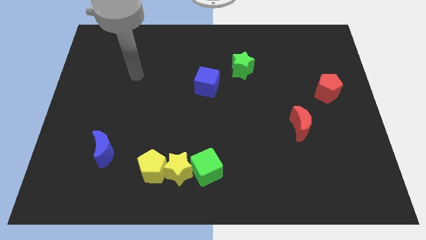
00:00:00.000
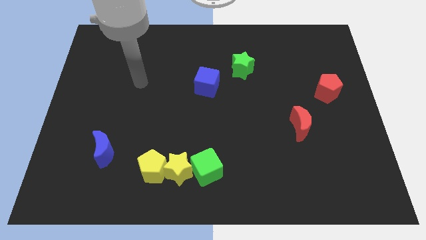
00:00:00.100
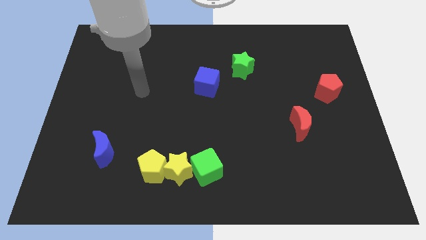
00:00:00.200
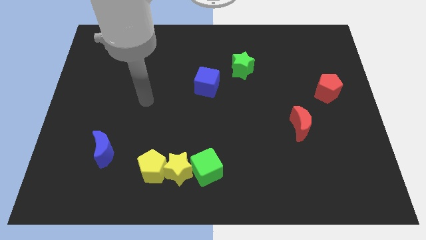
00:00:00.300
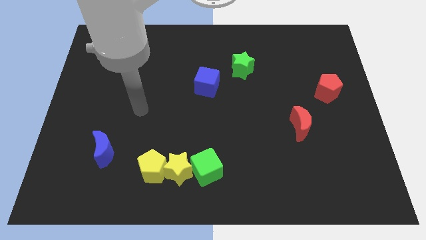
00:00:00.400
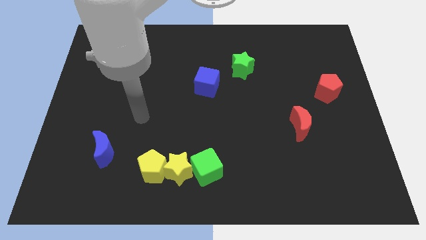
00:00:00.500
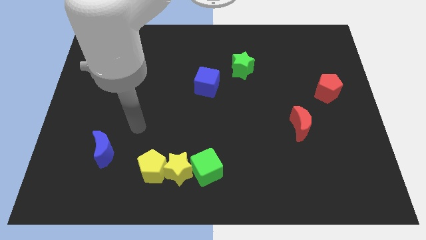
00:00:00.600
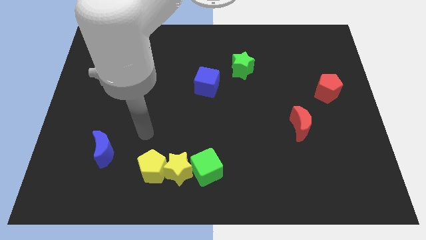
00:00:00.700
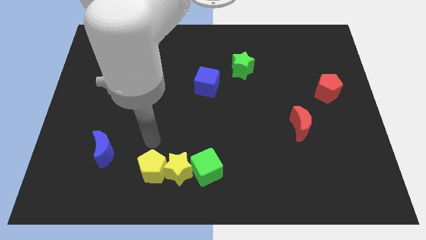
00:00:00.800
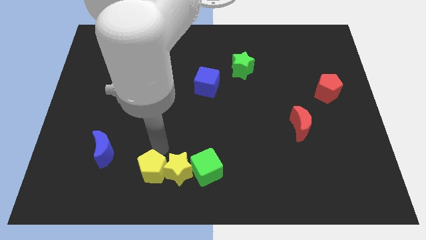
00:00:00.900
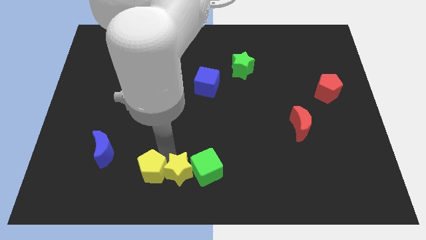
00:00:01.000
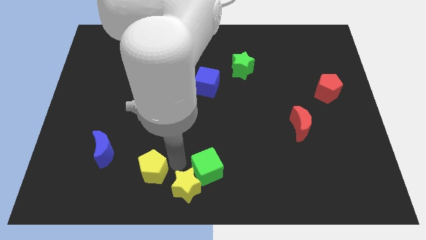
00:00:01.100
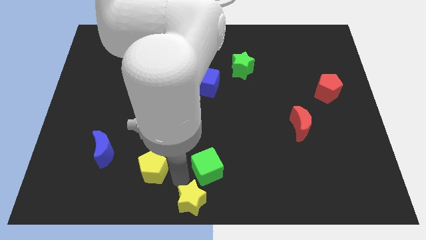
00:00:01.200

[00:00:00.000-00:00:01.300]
pull the yellow pentagon apart from the yellow star

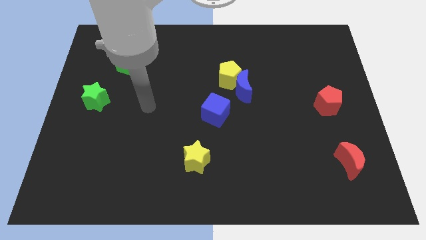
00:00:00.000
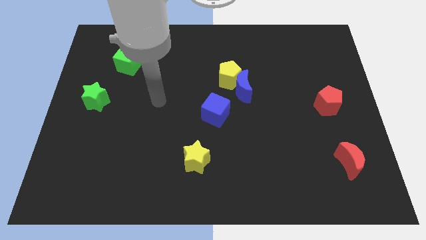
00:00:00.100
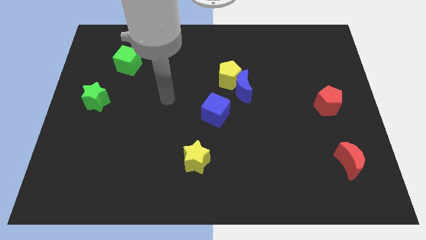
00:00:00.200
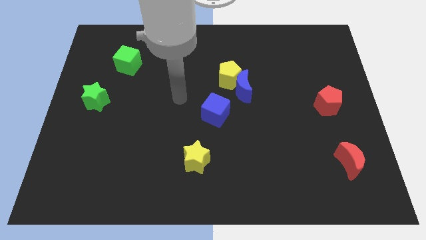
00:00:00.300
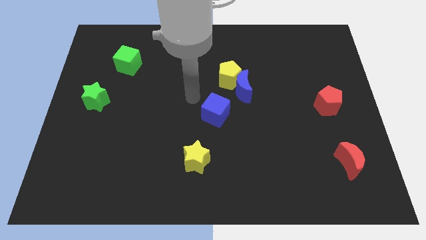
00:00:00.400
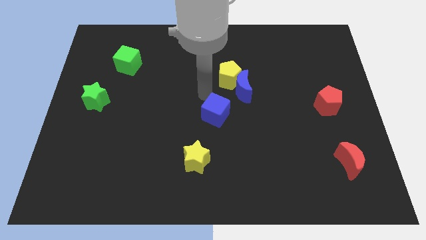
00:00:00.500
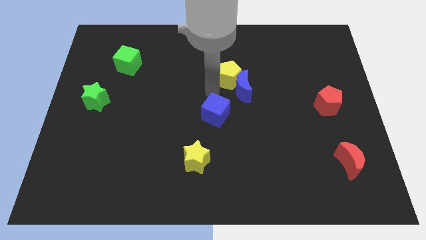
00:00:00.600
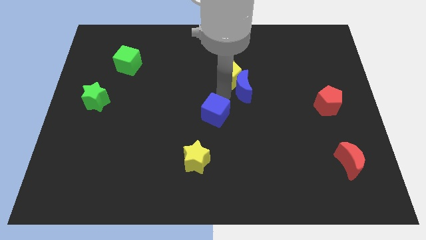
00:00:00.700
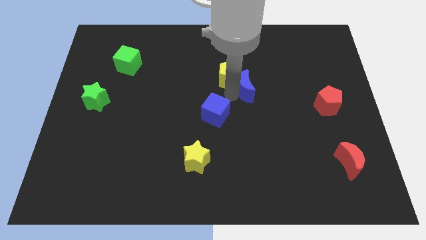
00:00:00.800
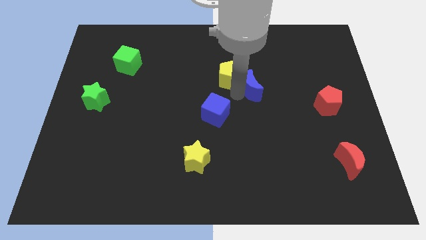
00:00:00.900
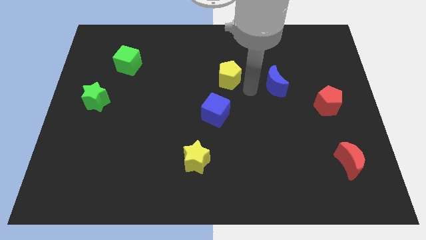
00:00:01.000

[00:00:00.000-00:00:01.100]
separate the yellow pentagon from the blue moon

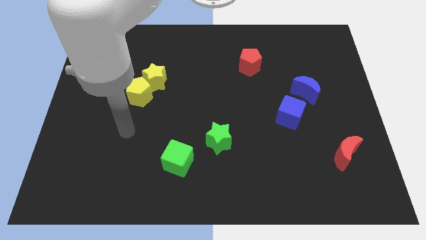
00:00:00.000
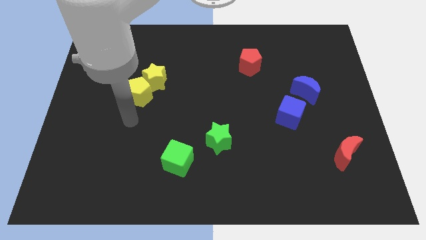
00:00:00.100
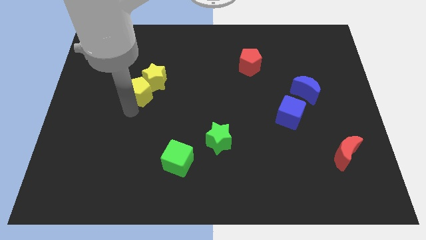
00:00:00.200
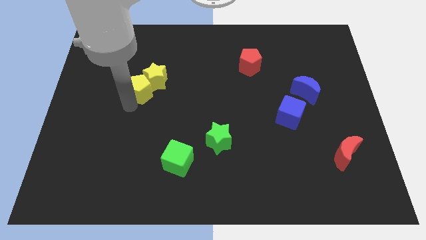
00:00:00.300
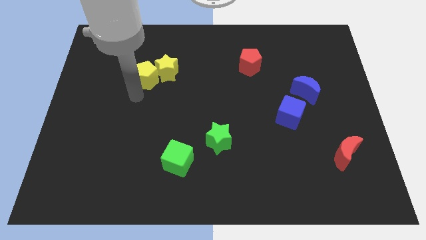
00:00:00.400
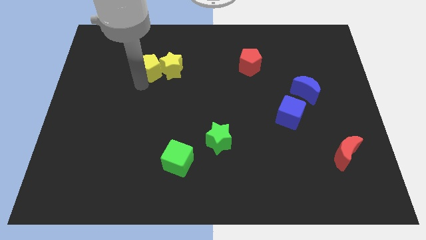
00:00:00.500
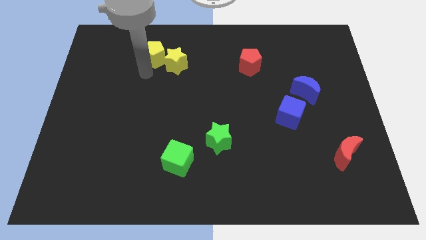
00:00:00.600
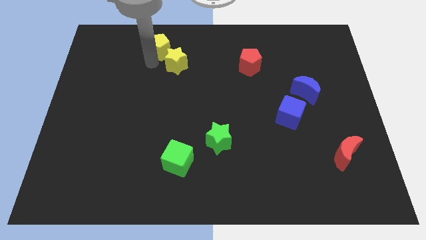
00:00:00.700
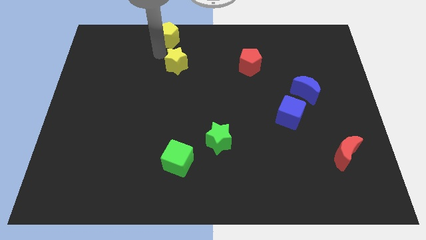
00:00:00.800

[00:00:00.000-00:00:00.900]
separate the yellow star from the yellow pentagon

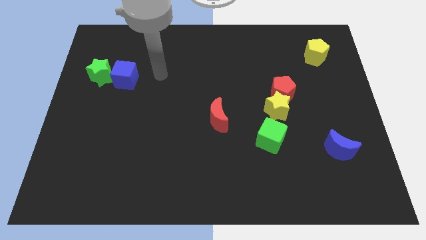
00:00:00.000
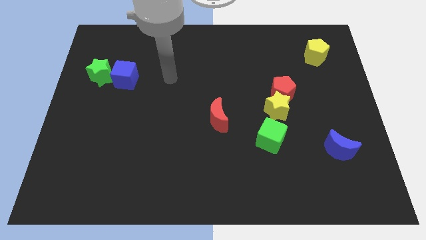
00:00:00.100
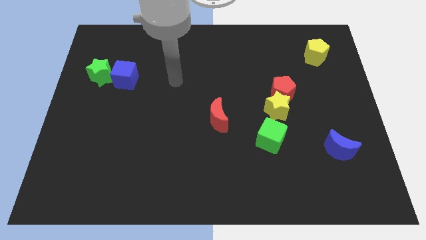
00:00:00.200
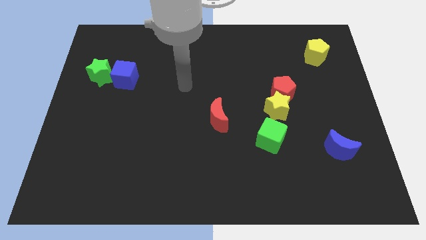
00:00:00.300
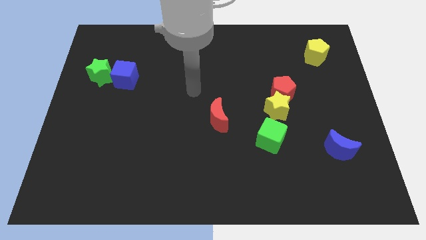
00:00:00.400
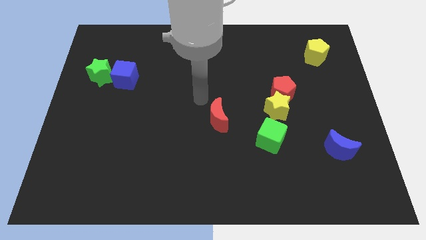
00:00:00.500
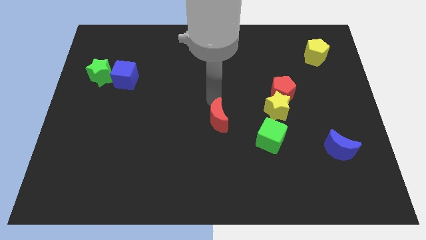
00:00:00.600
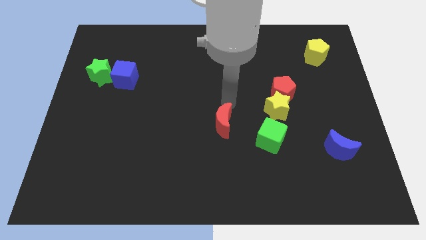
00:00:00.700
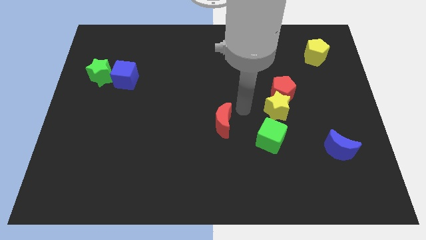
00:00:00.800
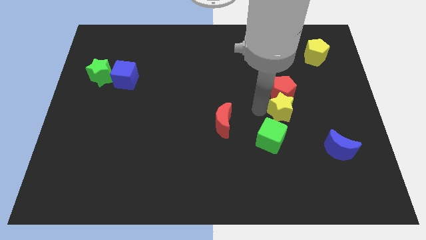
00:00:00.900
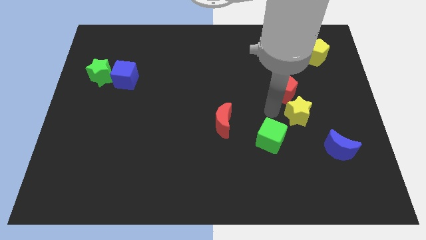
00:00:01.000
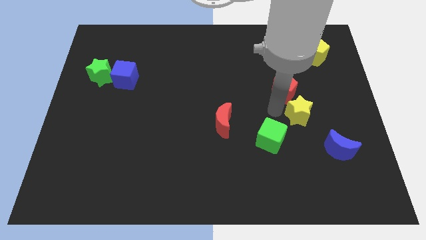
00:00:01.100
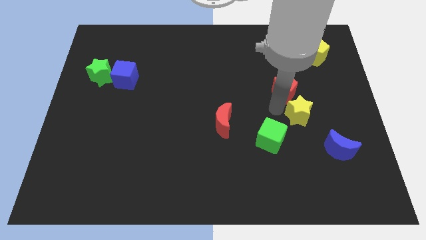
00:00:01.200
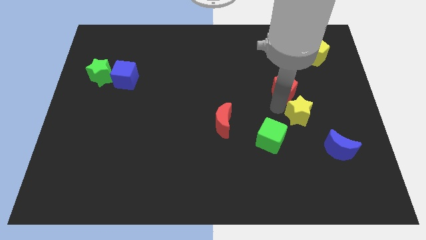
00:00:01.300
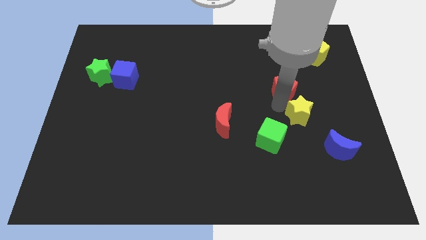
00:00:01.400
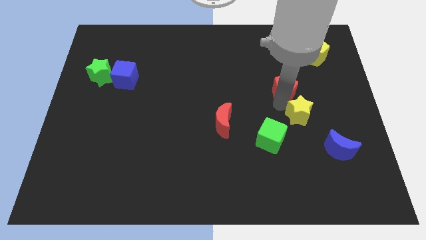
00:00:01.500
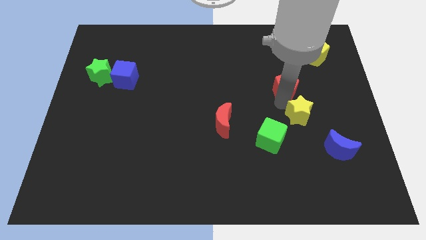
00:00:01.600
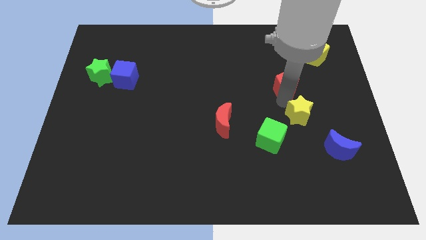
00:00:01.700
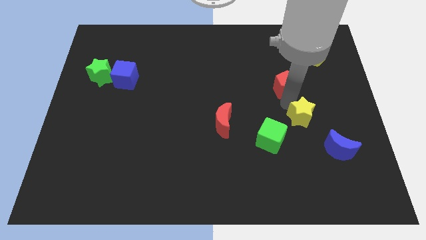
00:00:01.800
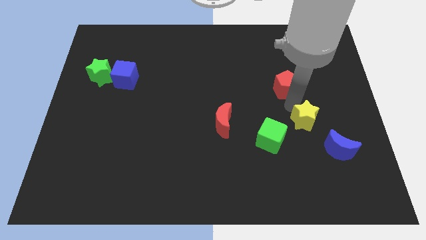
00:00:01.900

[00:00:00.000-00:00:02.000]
separate the red pentagon from the yellow star

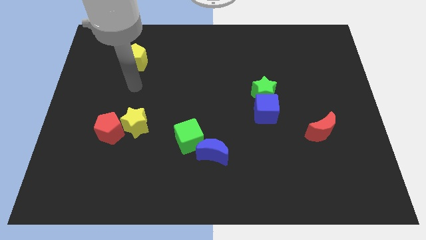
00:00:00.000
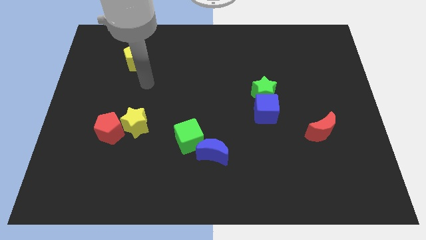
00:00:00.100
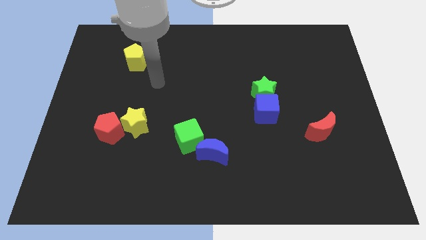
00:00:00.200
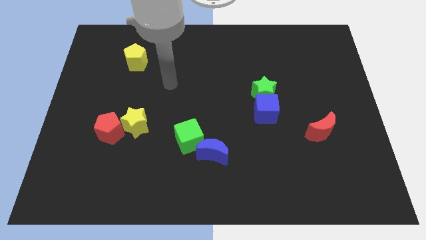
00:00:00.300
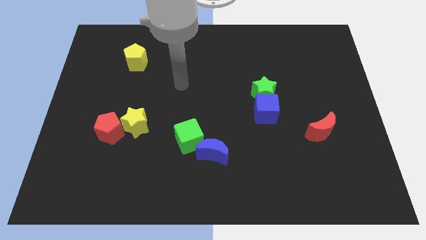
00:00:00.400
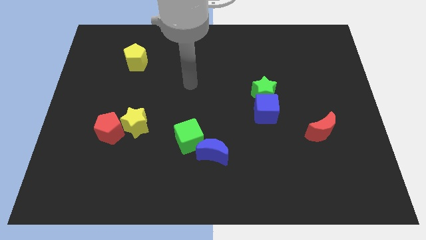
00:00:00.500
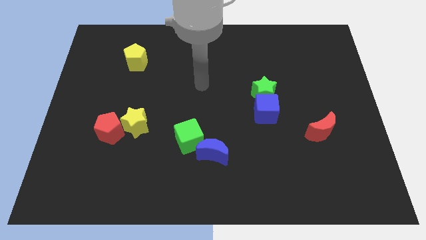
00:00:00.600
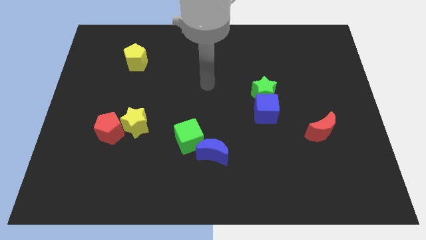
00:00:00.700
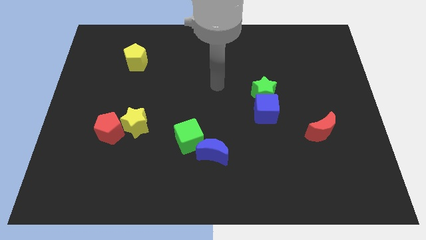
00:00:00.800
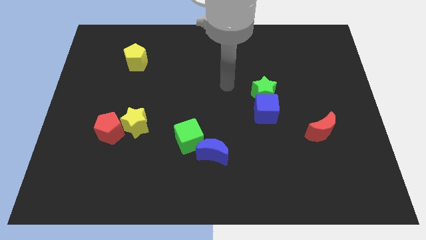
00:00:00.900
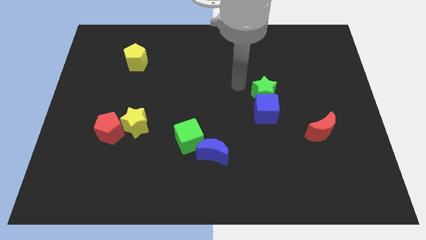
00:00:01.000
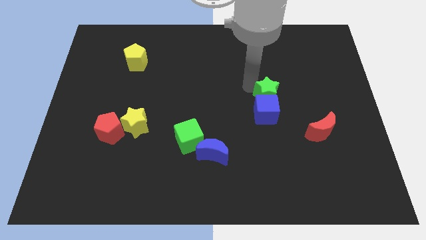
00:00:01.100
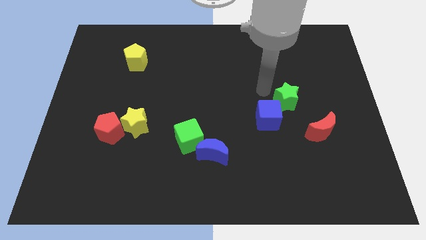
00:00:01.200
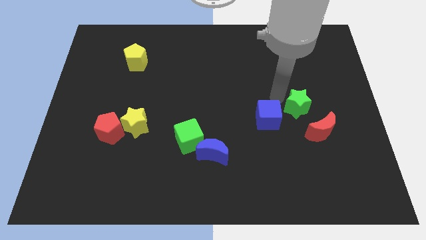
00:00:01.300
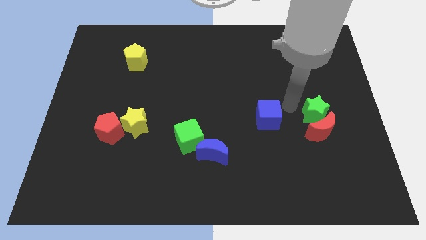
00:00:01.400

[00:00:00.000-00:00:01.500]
separate the blue cube from the green star
